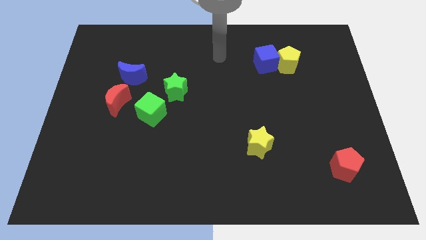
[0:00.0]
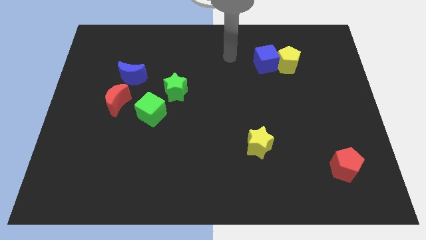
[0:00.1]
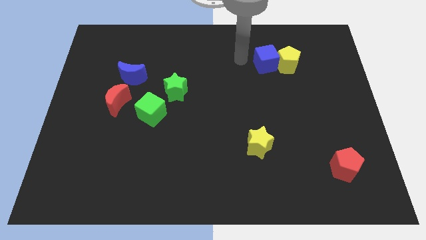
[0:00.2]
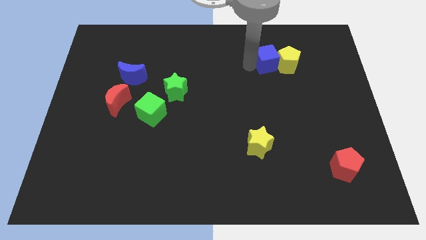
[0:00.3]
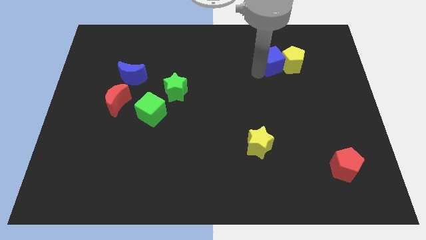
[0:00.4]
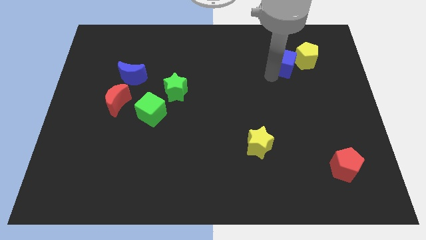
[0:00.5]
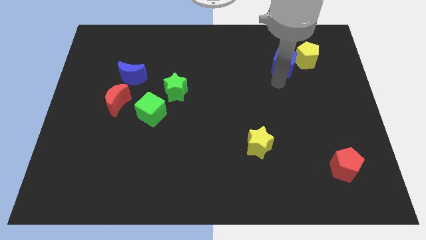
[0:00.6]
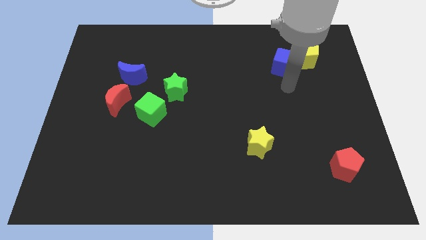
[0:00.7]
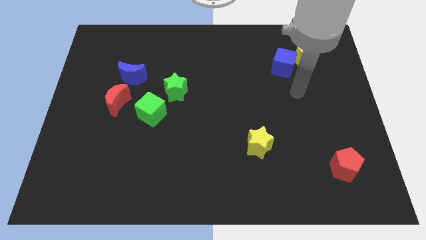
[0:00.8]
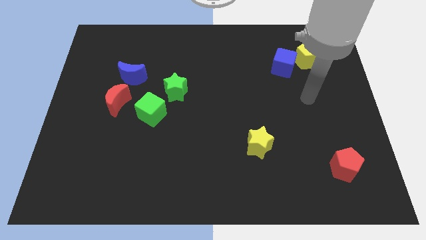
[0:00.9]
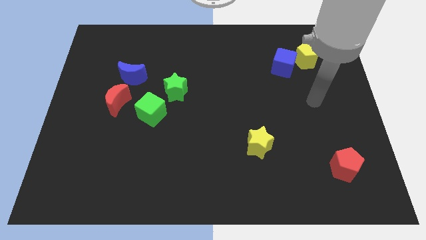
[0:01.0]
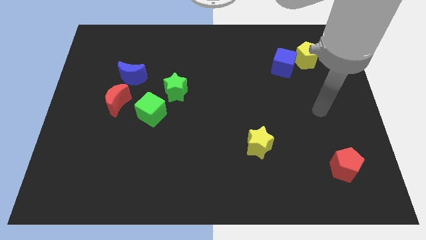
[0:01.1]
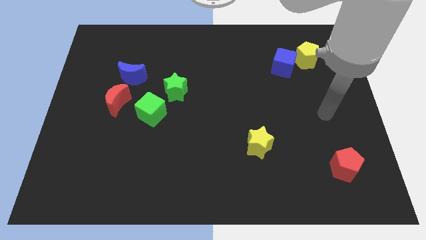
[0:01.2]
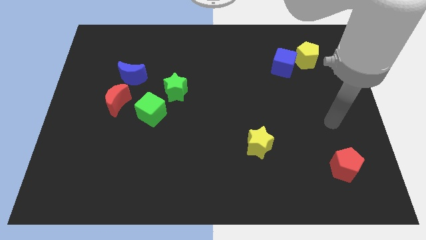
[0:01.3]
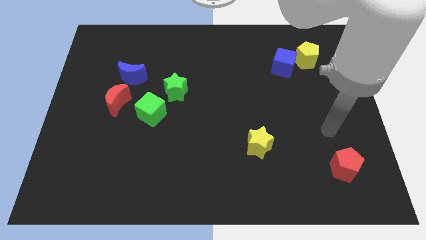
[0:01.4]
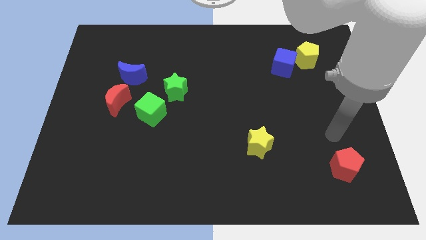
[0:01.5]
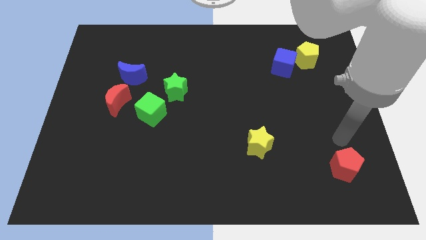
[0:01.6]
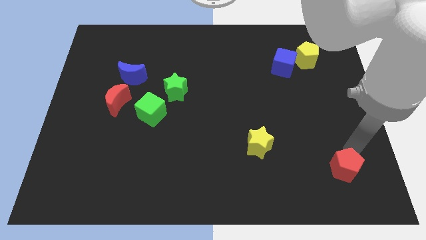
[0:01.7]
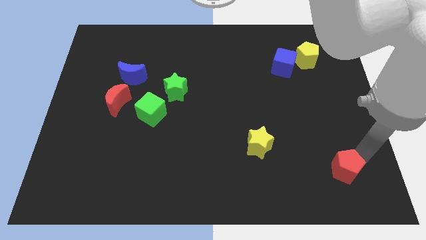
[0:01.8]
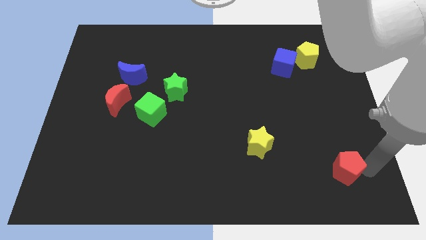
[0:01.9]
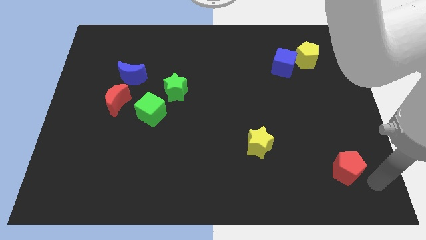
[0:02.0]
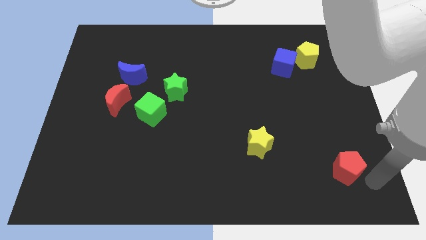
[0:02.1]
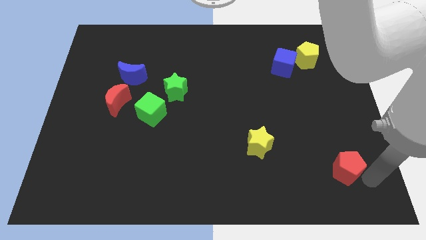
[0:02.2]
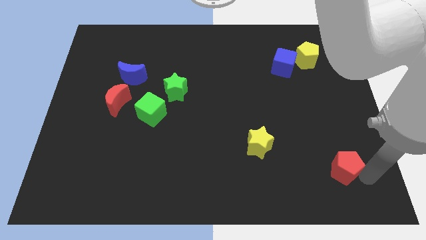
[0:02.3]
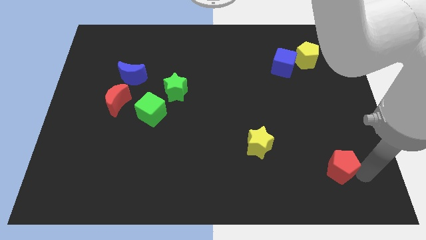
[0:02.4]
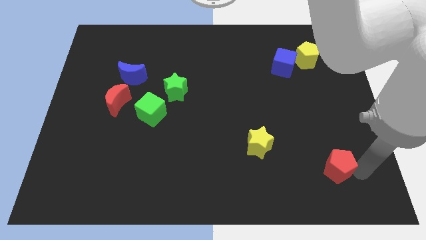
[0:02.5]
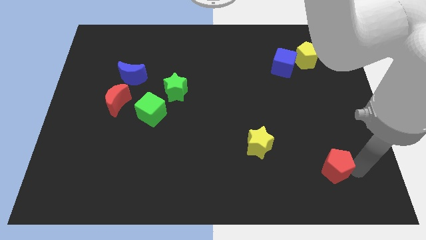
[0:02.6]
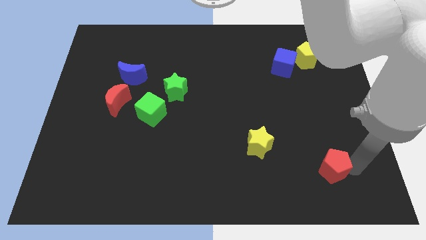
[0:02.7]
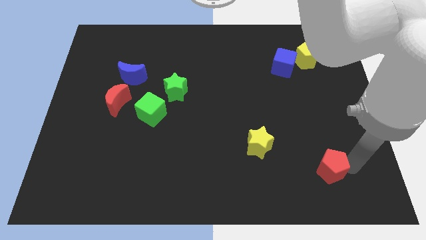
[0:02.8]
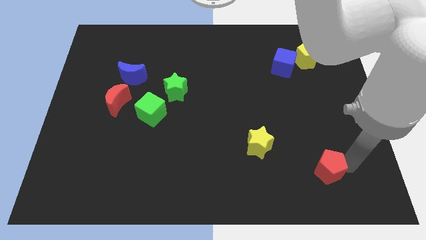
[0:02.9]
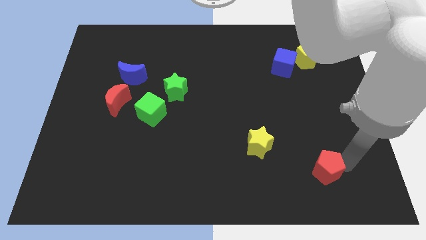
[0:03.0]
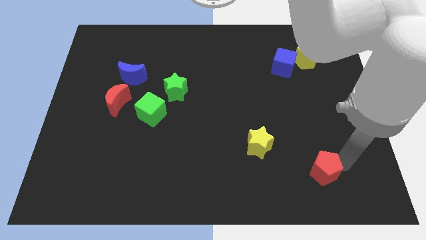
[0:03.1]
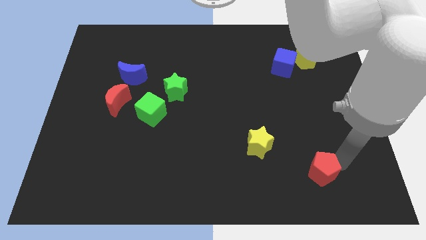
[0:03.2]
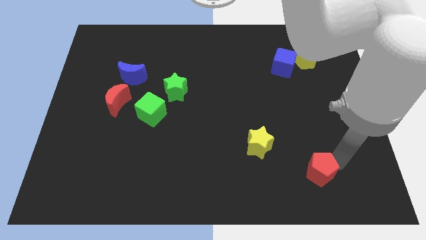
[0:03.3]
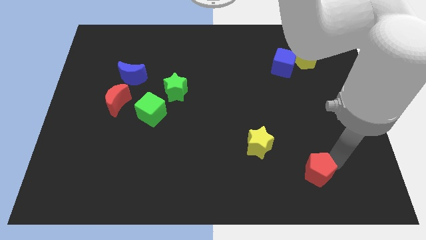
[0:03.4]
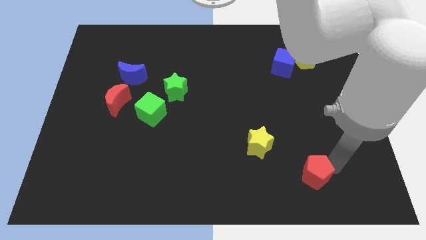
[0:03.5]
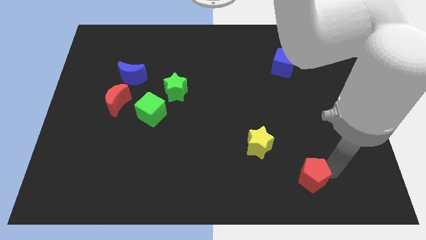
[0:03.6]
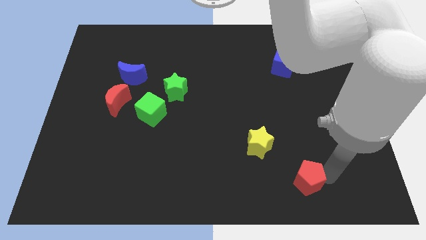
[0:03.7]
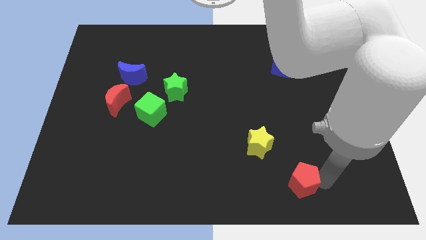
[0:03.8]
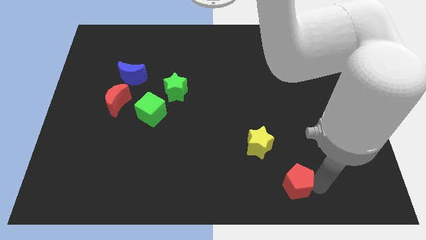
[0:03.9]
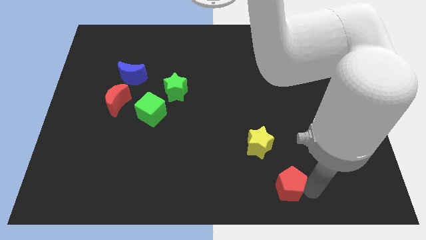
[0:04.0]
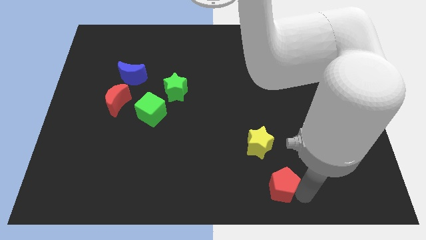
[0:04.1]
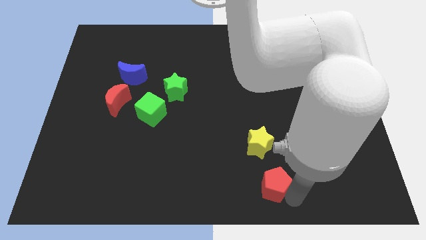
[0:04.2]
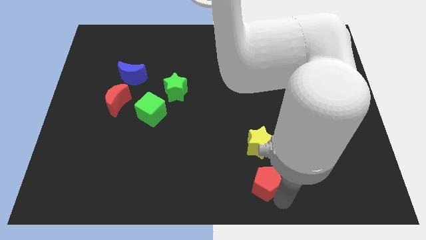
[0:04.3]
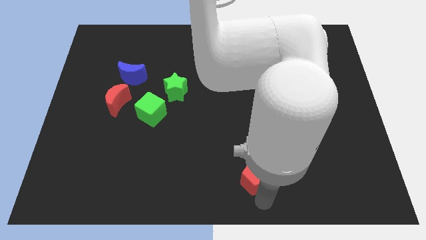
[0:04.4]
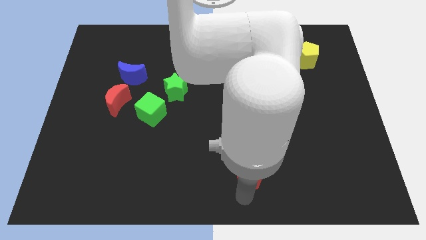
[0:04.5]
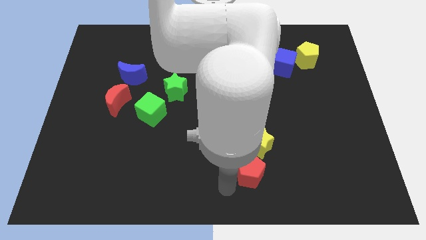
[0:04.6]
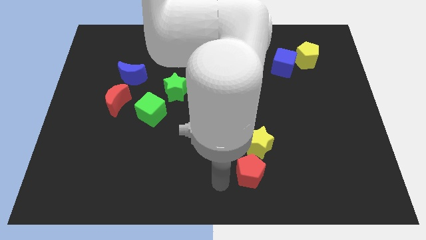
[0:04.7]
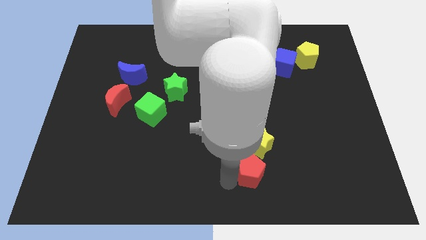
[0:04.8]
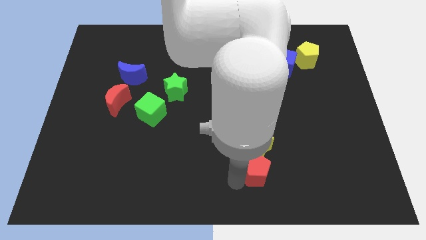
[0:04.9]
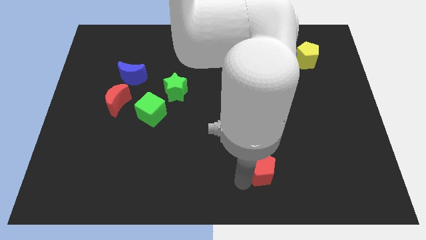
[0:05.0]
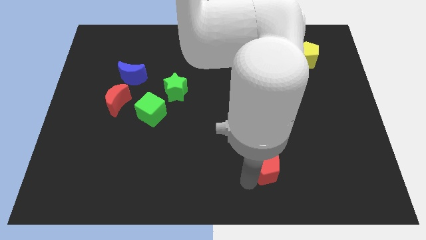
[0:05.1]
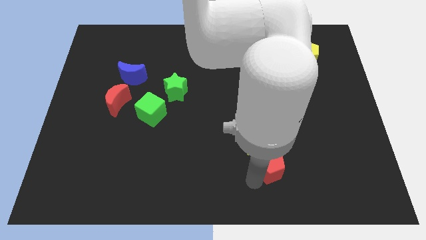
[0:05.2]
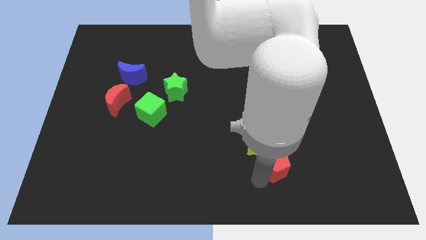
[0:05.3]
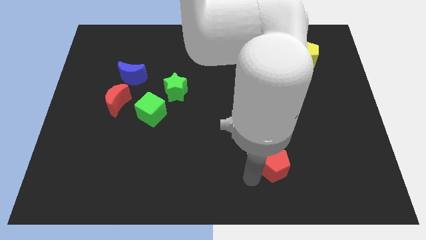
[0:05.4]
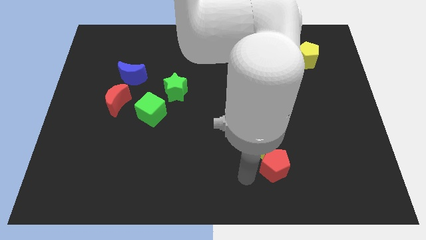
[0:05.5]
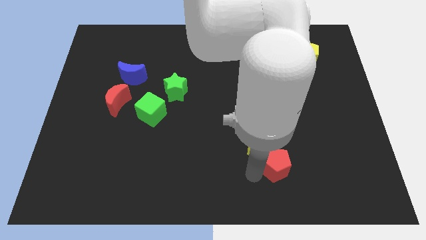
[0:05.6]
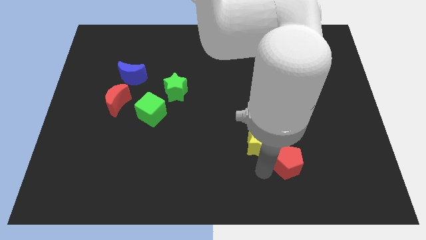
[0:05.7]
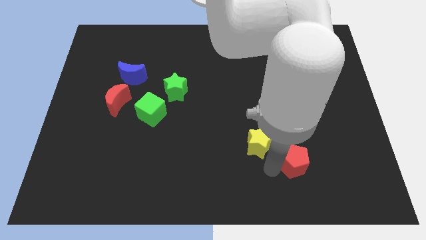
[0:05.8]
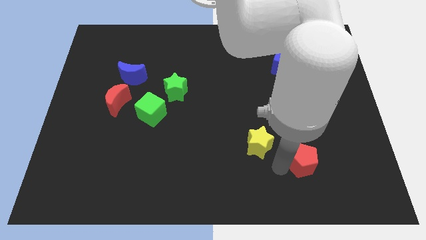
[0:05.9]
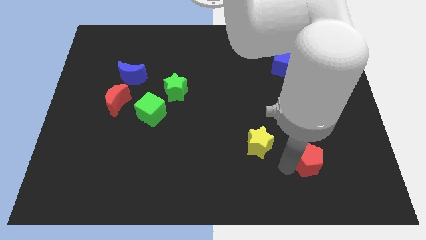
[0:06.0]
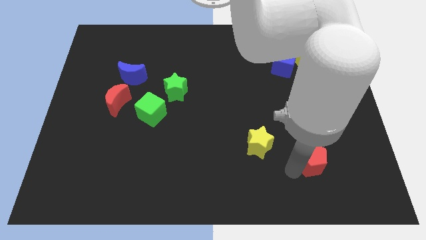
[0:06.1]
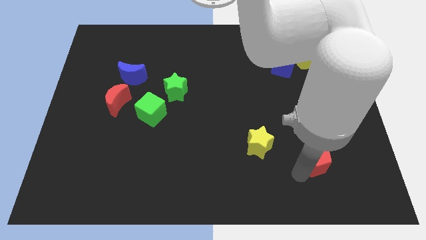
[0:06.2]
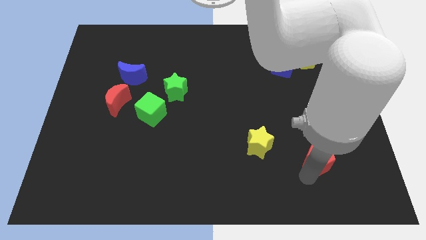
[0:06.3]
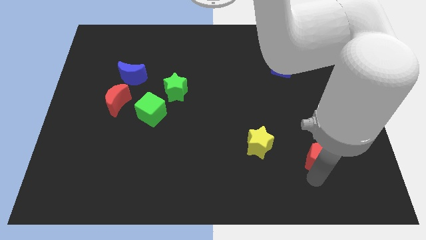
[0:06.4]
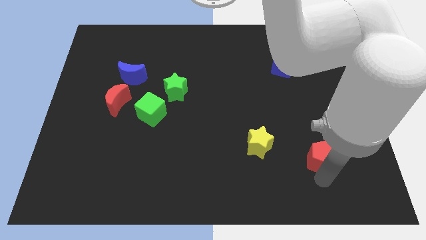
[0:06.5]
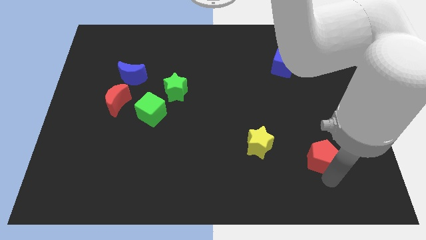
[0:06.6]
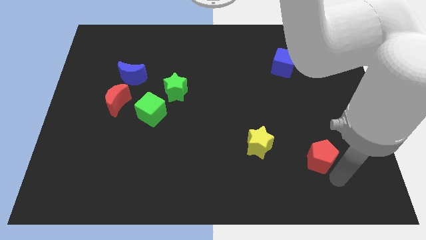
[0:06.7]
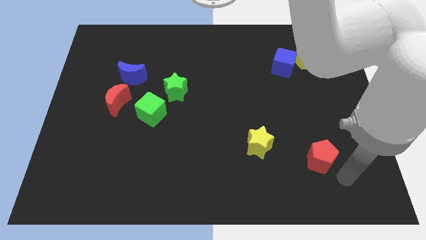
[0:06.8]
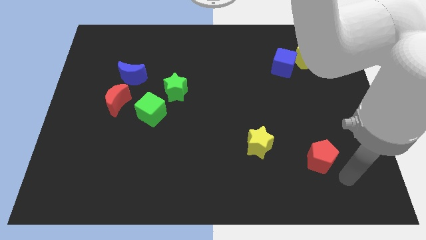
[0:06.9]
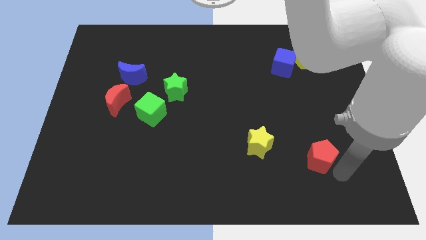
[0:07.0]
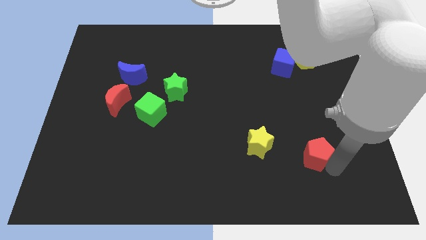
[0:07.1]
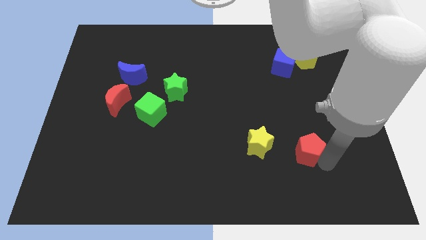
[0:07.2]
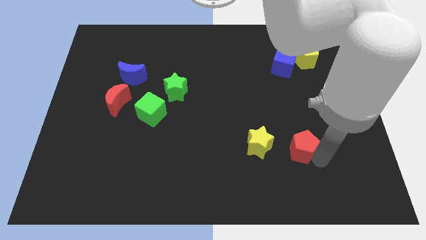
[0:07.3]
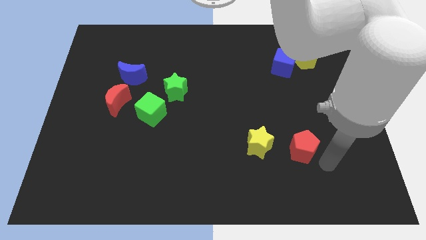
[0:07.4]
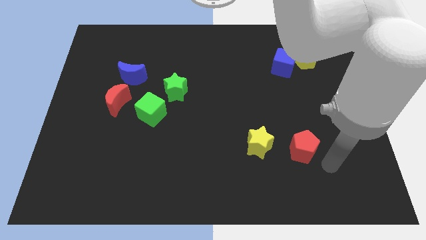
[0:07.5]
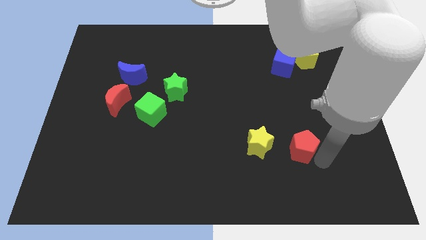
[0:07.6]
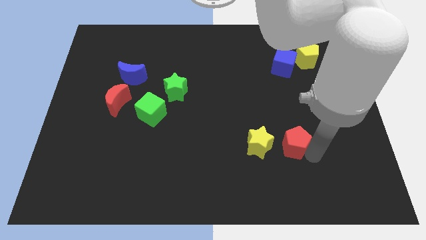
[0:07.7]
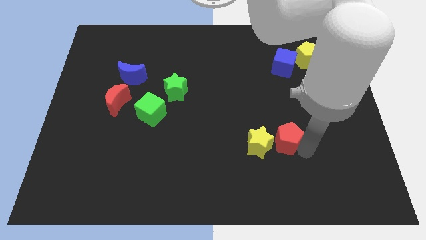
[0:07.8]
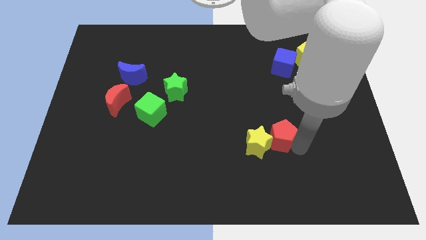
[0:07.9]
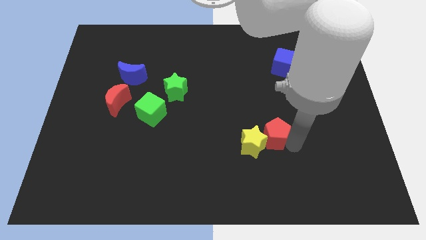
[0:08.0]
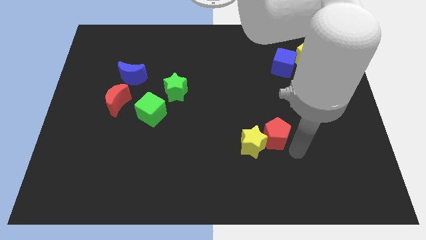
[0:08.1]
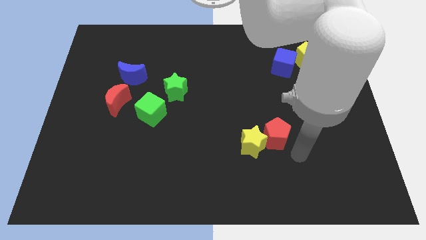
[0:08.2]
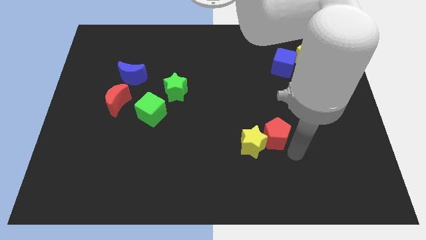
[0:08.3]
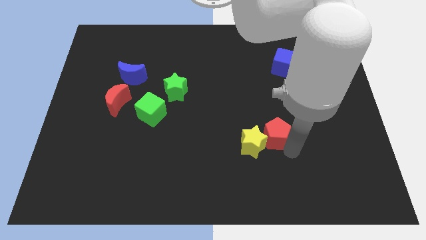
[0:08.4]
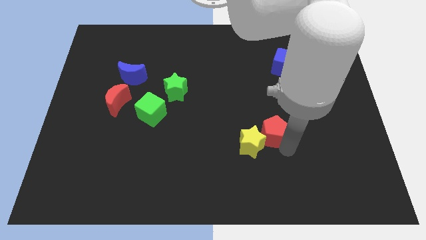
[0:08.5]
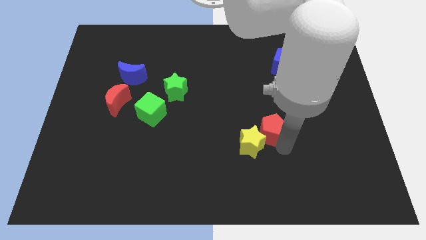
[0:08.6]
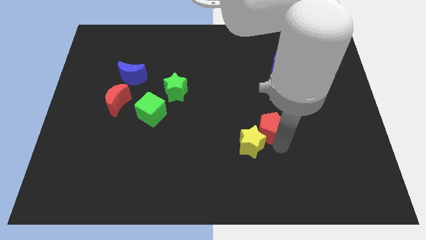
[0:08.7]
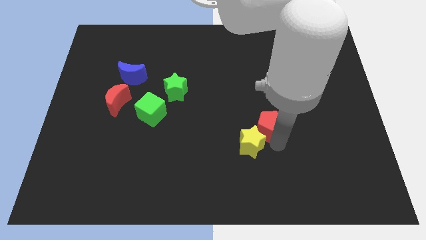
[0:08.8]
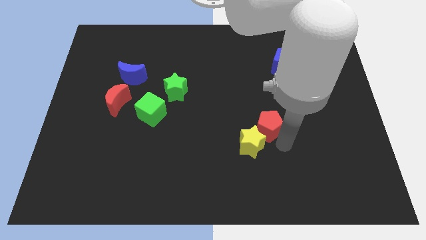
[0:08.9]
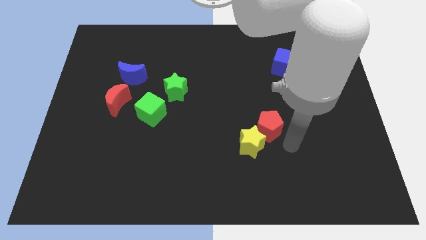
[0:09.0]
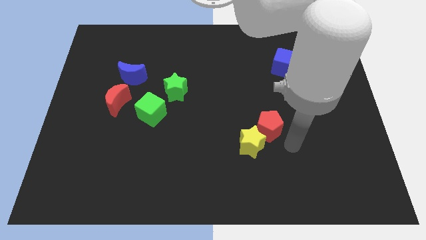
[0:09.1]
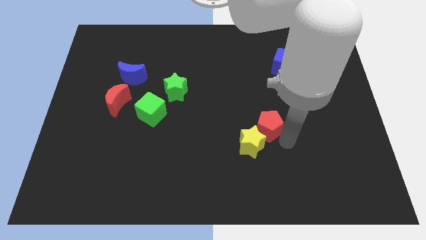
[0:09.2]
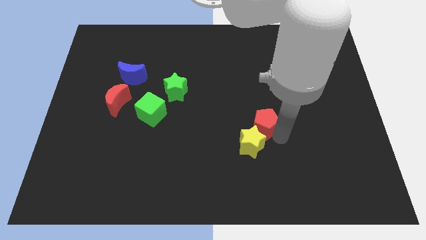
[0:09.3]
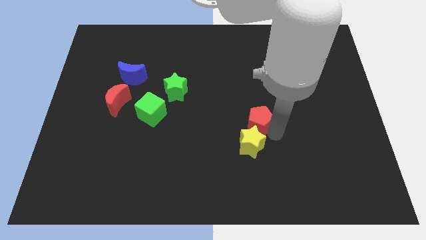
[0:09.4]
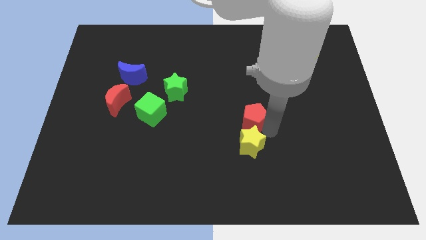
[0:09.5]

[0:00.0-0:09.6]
push the red pentagon upwards and to the left
